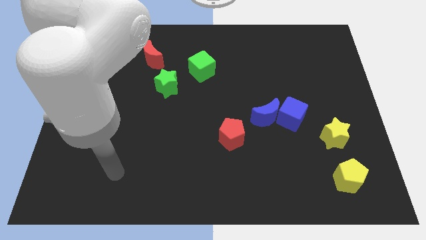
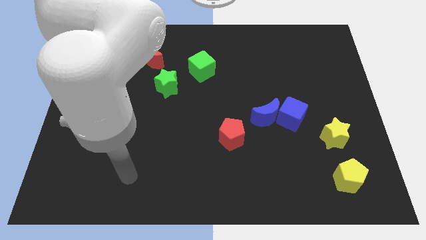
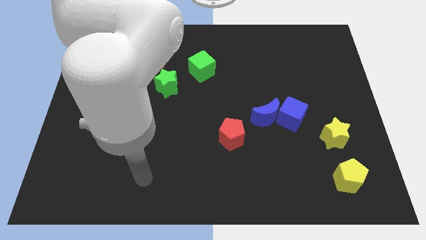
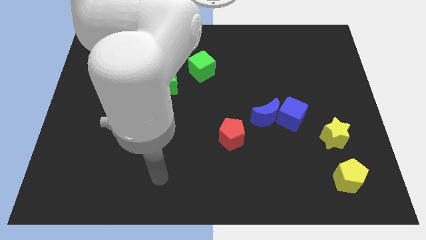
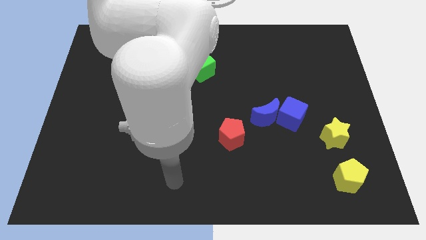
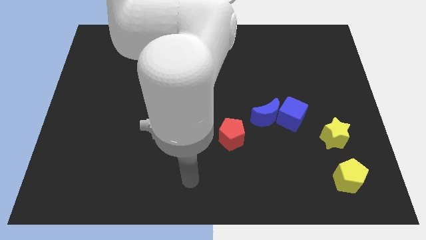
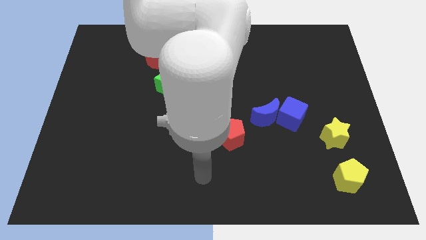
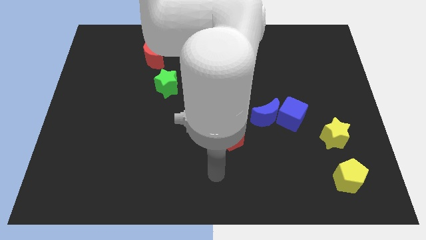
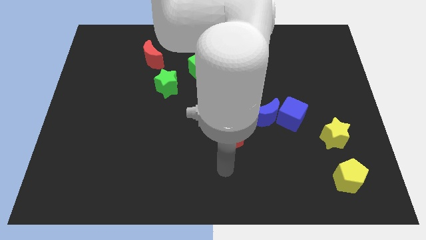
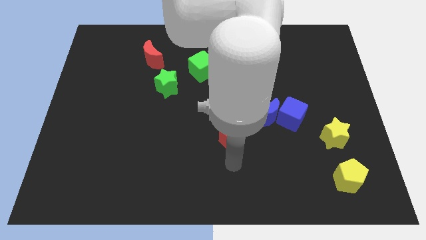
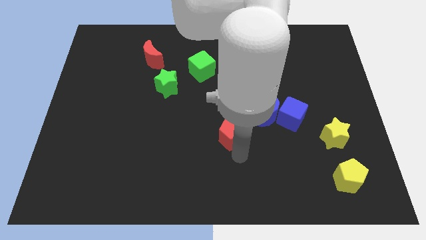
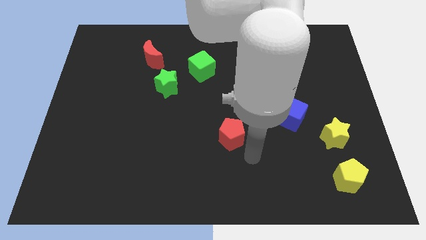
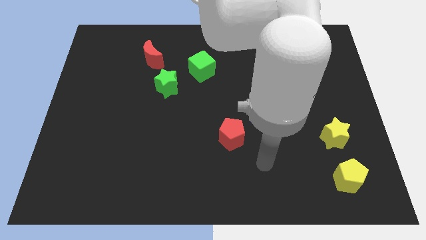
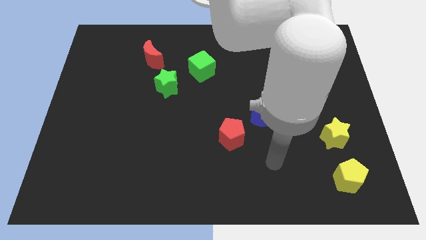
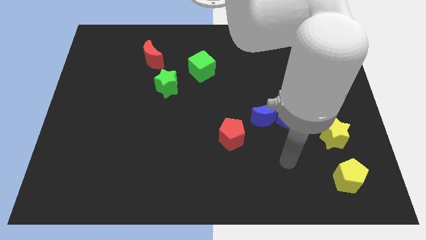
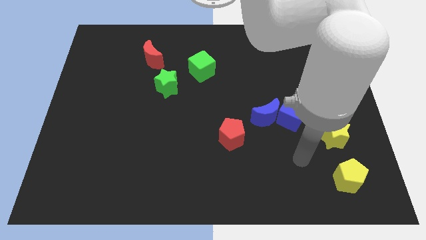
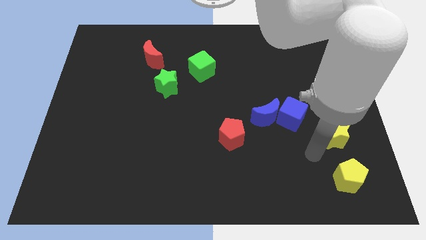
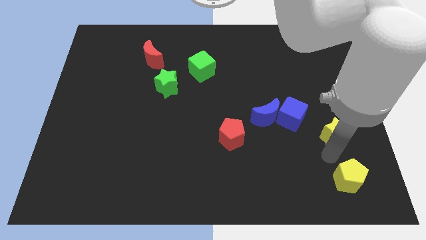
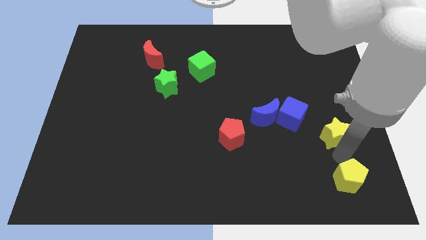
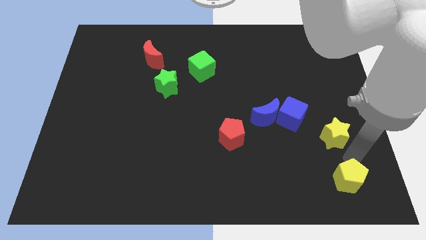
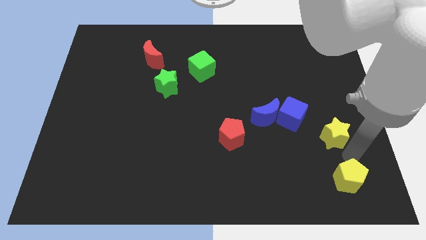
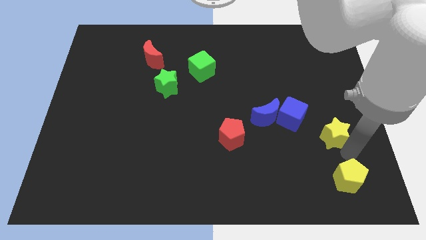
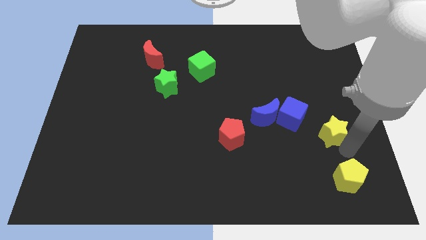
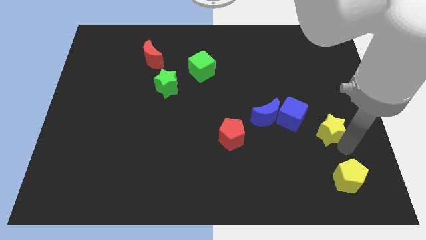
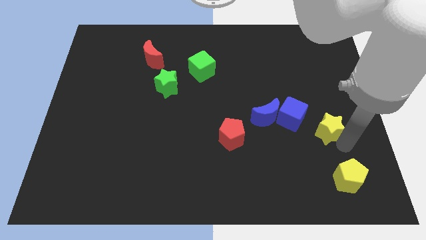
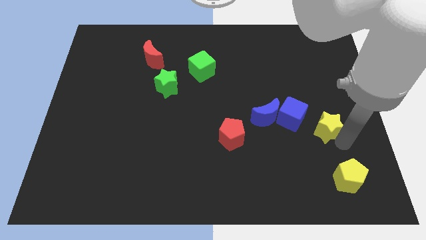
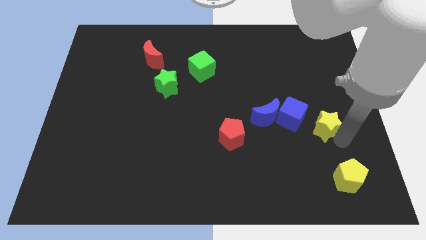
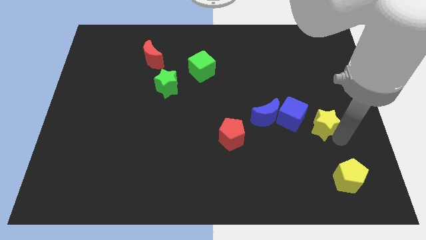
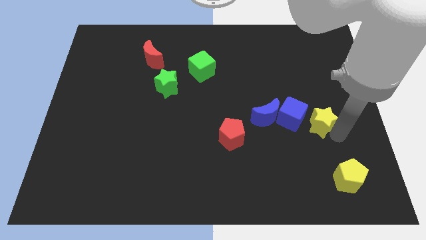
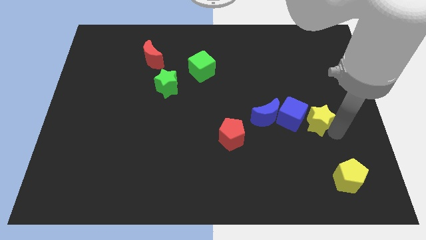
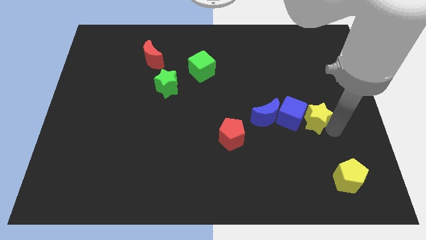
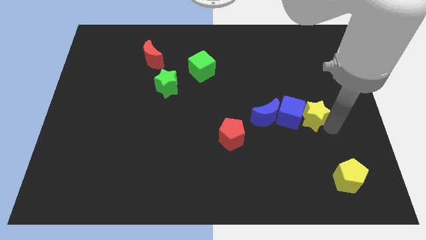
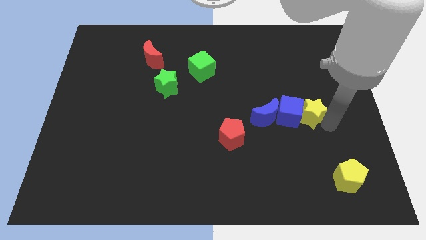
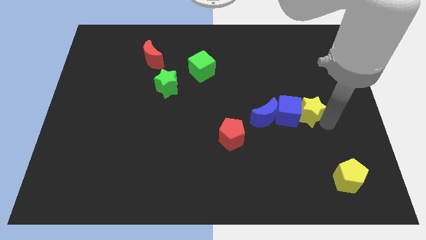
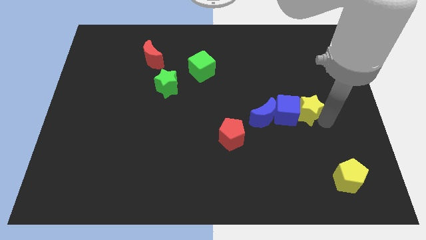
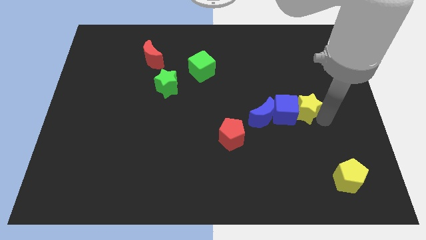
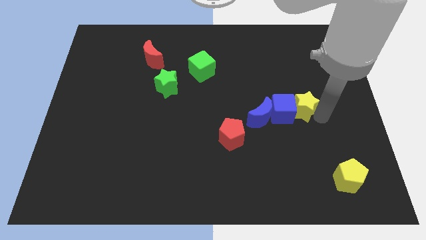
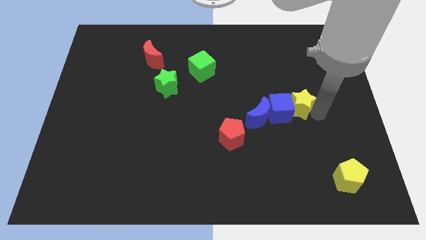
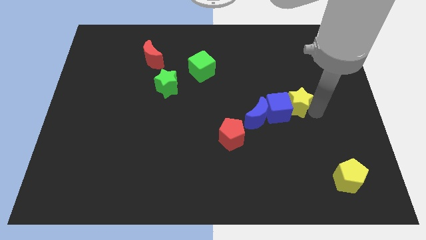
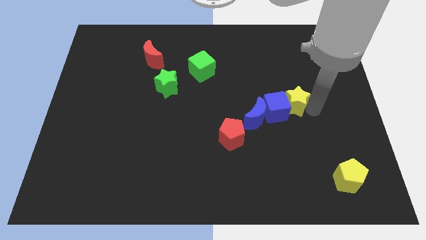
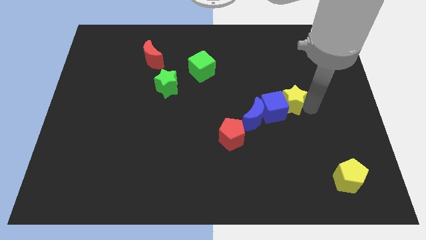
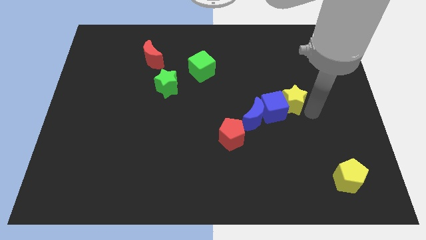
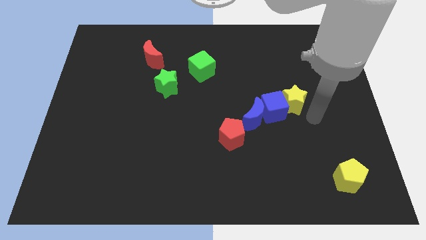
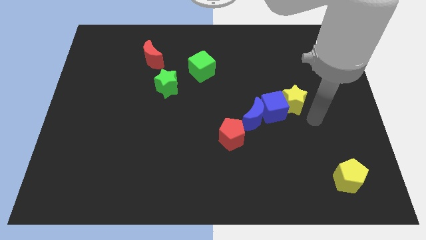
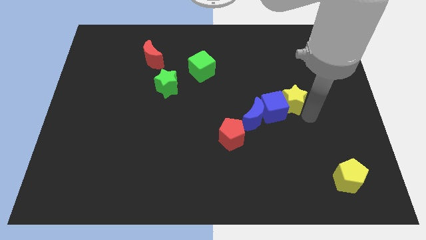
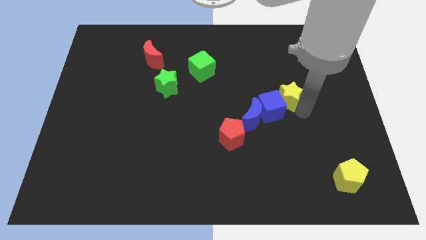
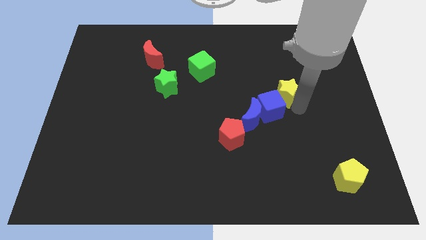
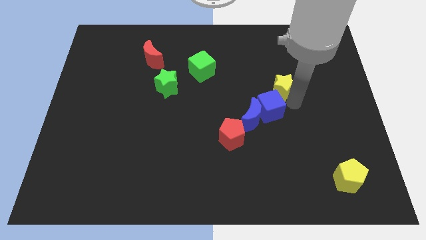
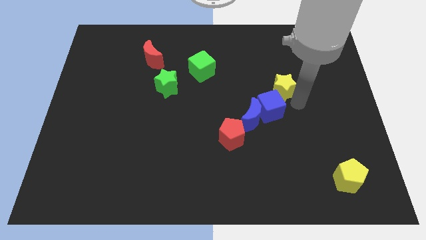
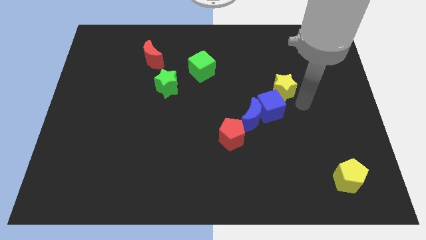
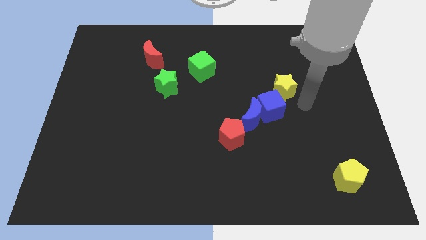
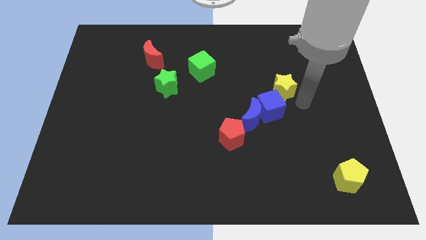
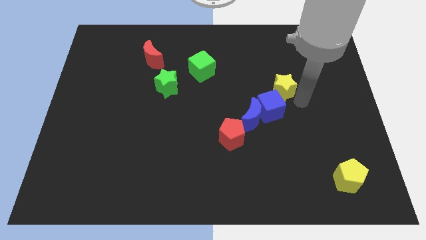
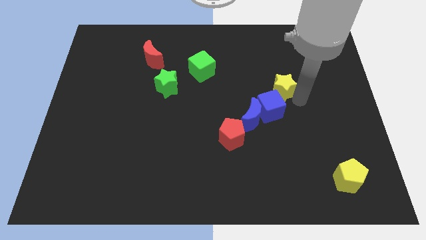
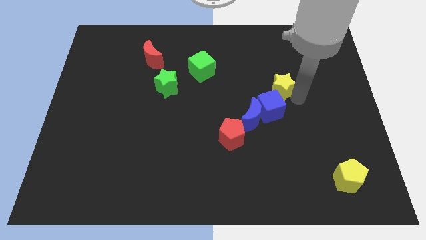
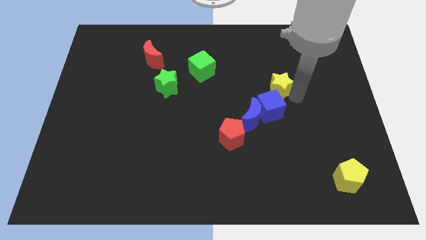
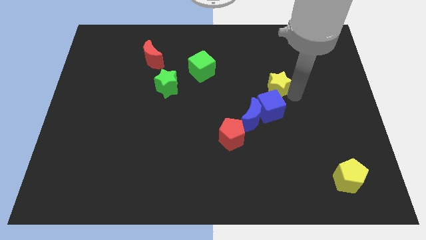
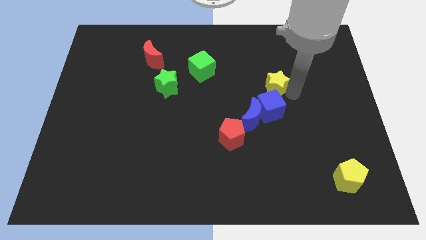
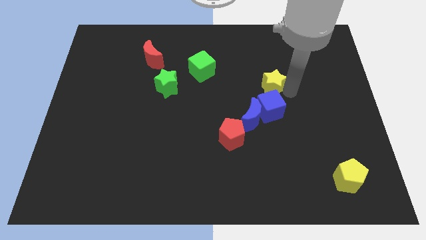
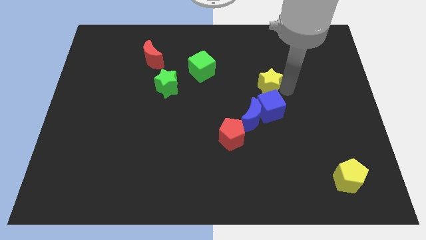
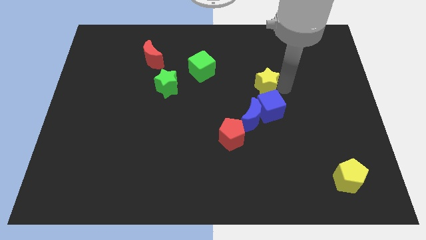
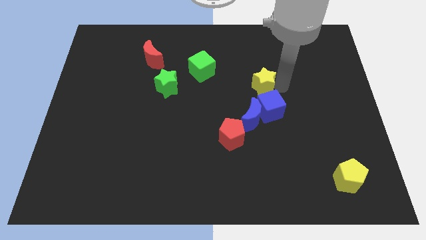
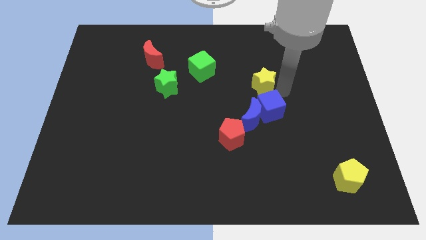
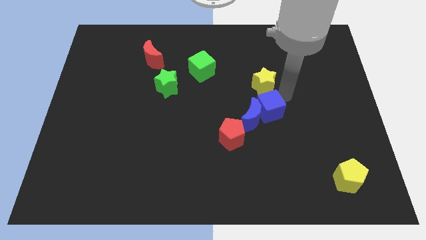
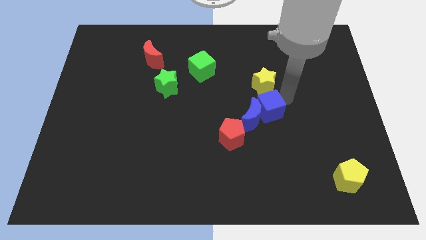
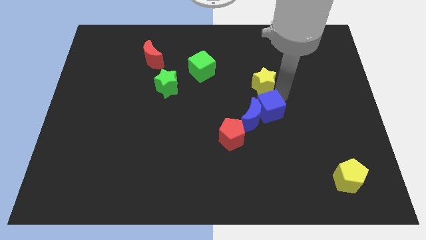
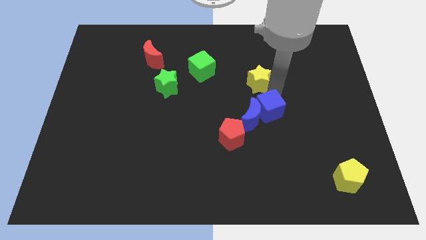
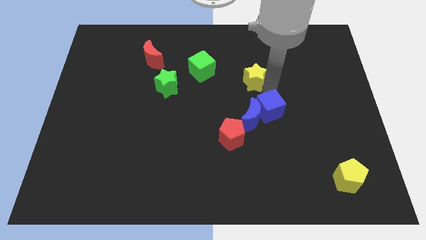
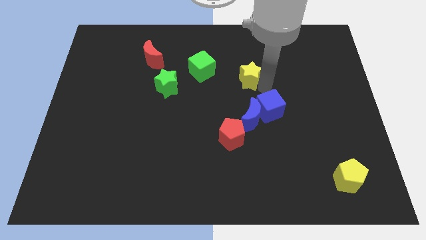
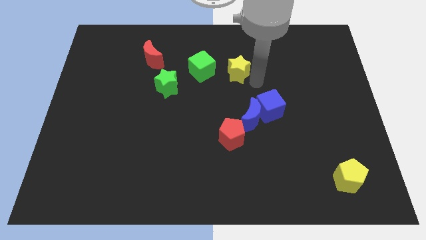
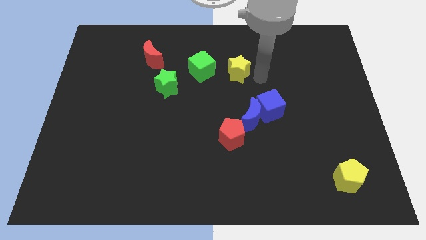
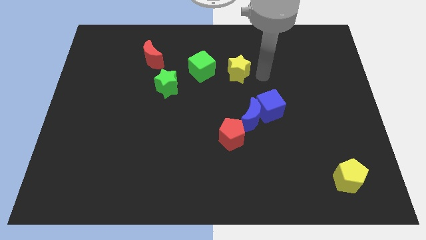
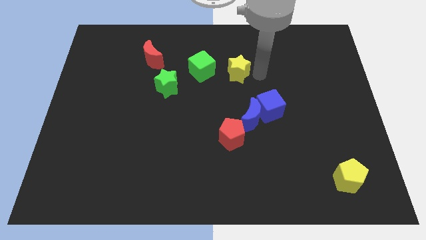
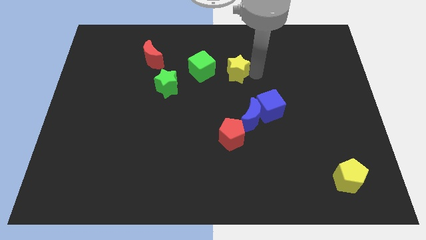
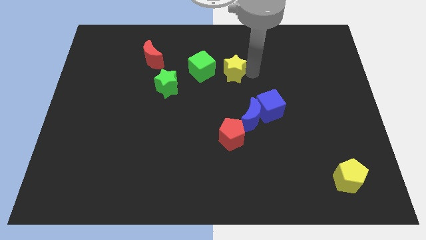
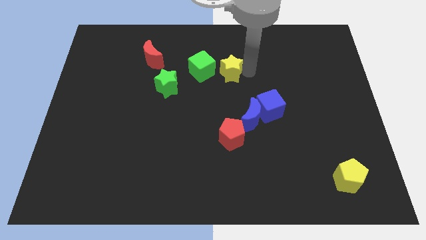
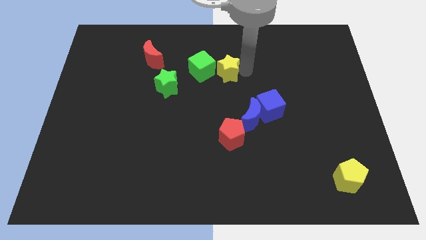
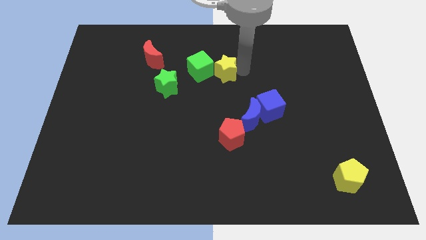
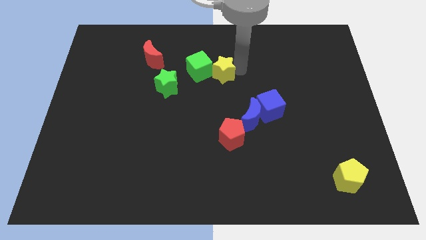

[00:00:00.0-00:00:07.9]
slide the yellow star close to the green cube
